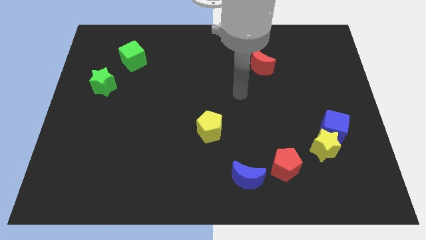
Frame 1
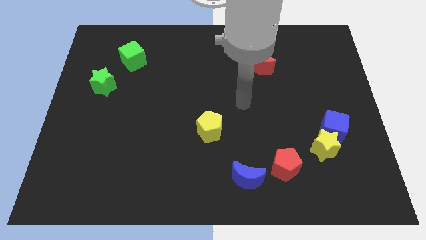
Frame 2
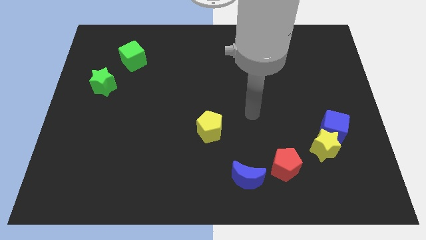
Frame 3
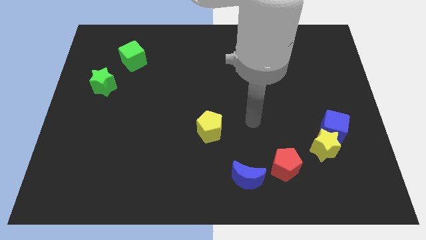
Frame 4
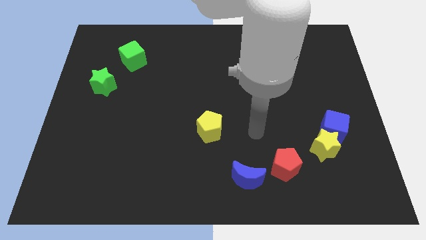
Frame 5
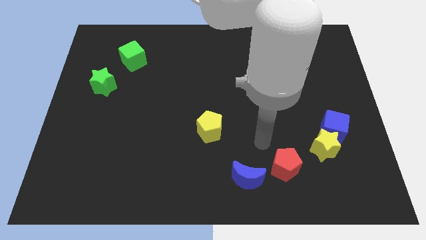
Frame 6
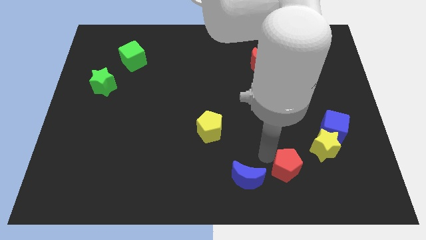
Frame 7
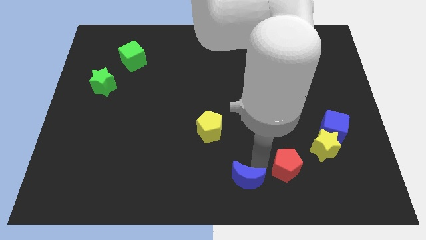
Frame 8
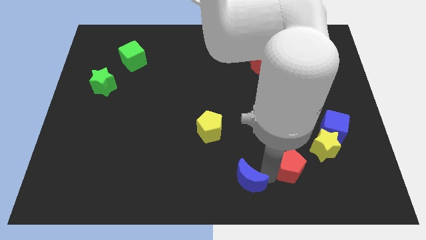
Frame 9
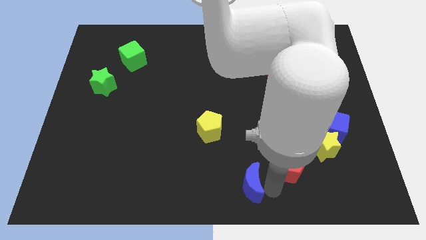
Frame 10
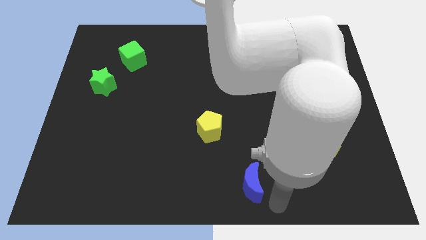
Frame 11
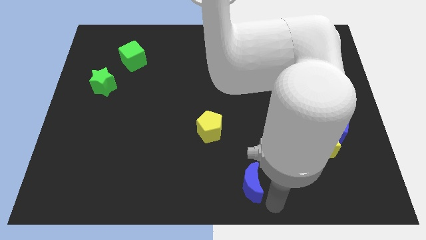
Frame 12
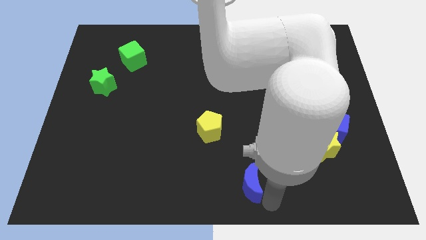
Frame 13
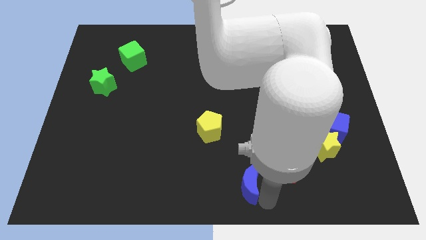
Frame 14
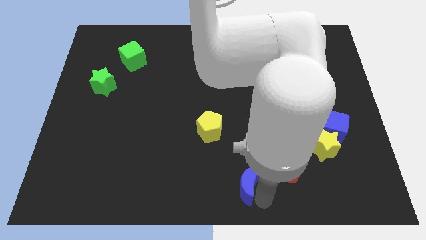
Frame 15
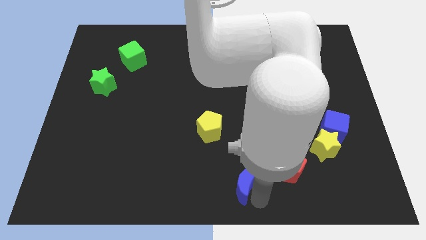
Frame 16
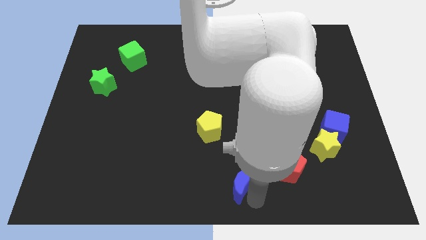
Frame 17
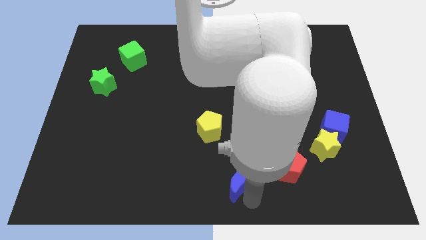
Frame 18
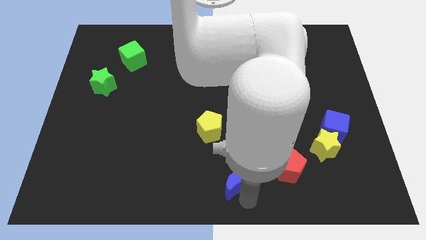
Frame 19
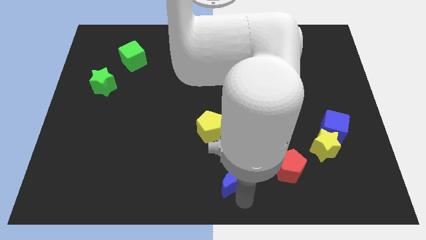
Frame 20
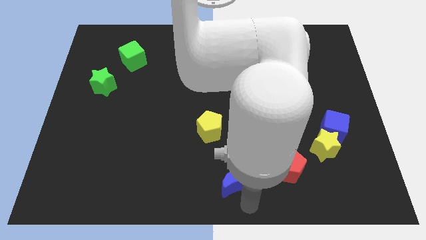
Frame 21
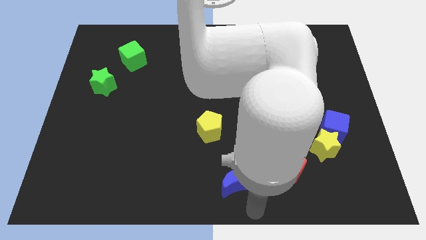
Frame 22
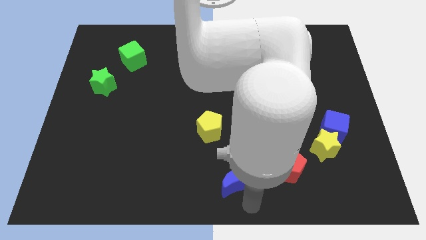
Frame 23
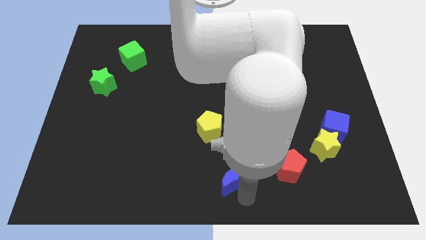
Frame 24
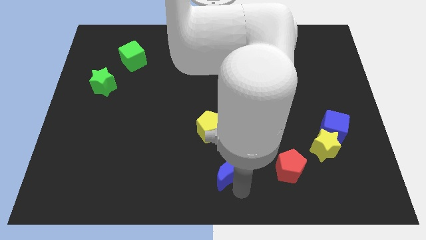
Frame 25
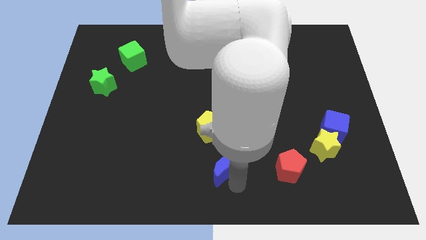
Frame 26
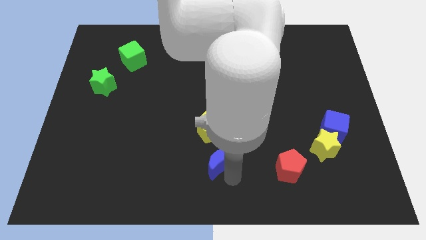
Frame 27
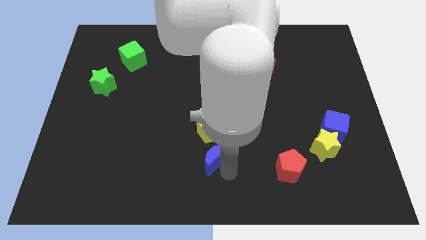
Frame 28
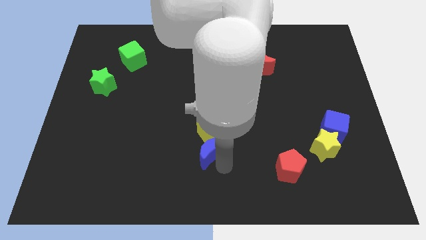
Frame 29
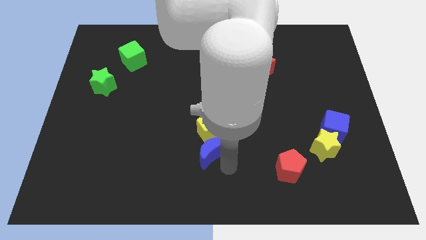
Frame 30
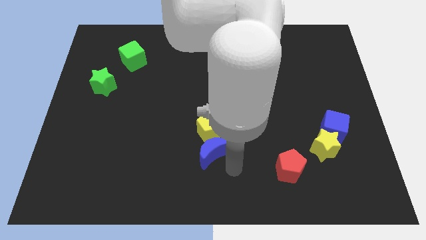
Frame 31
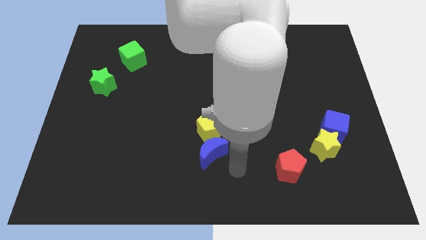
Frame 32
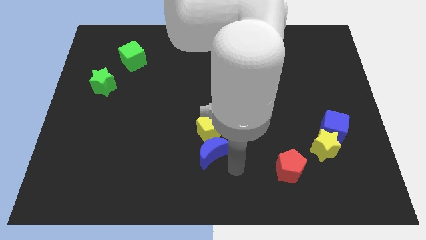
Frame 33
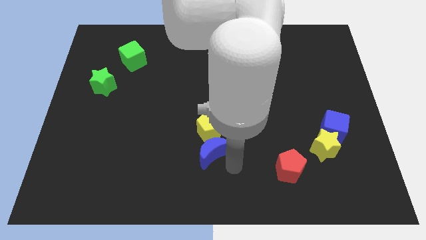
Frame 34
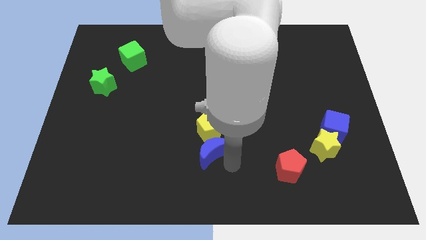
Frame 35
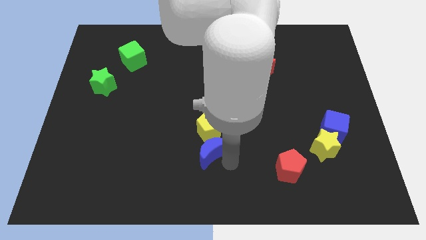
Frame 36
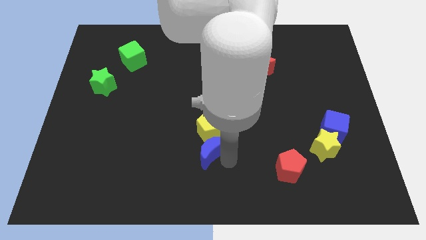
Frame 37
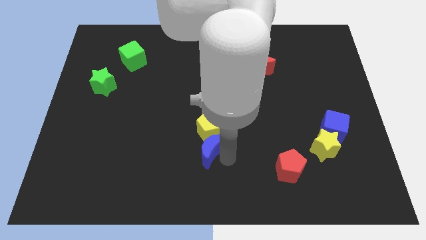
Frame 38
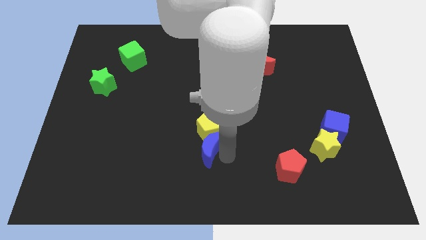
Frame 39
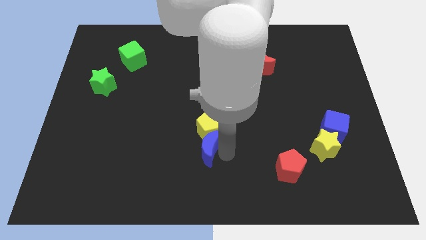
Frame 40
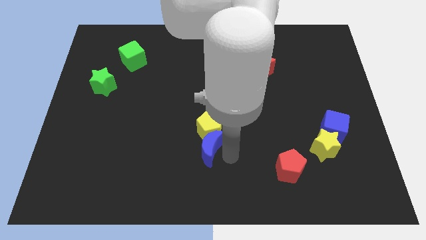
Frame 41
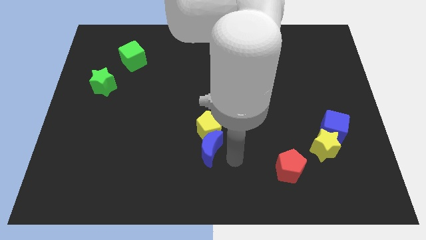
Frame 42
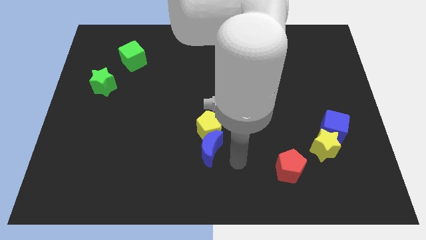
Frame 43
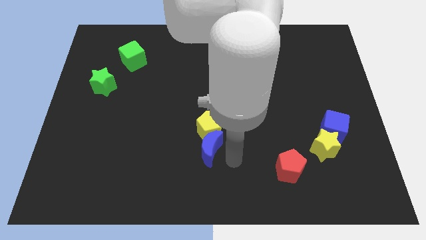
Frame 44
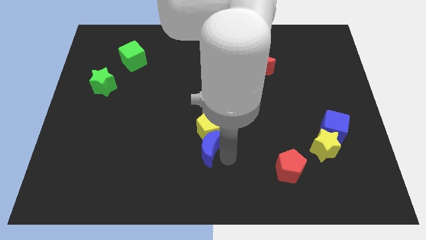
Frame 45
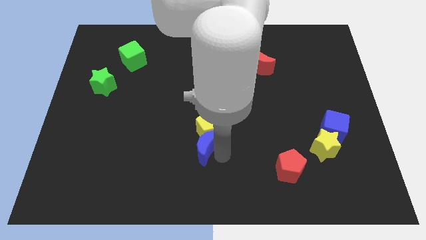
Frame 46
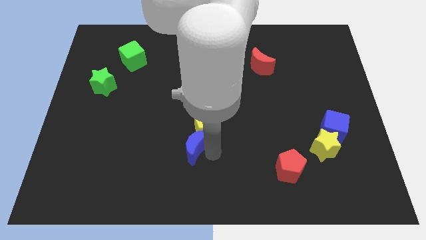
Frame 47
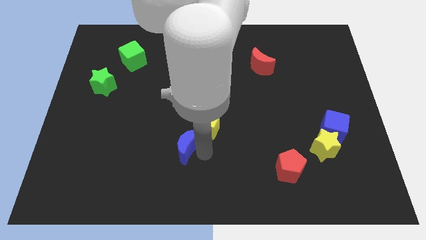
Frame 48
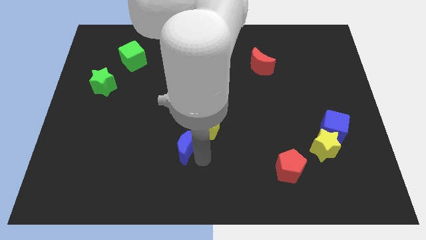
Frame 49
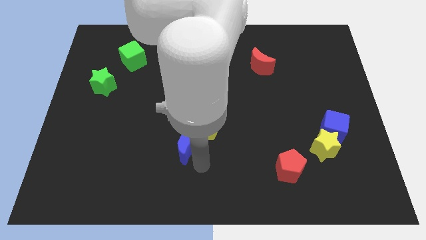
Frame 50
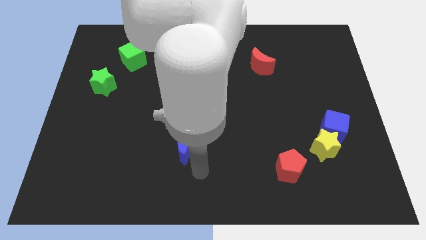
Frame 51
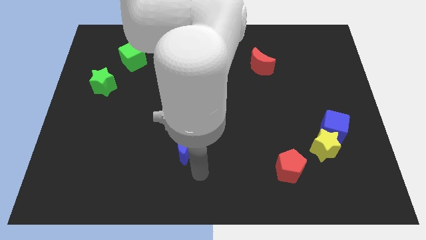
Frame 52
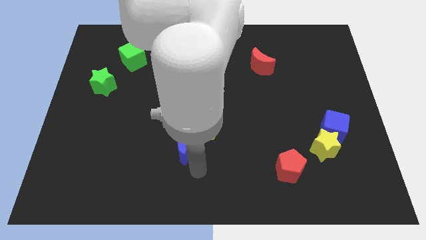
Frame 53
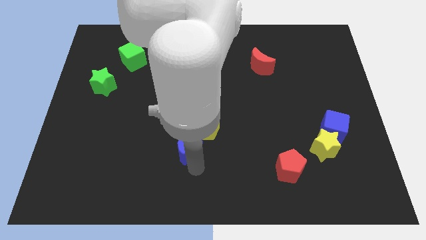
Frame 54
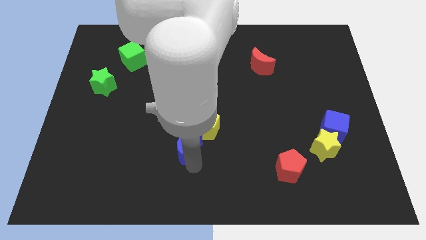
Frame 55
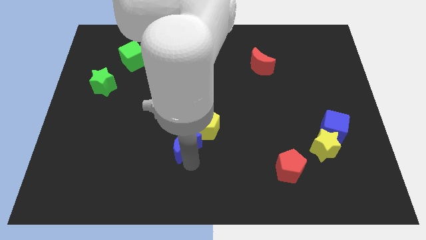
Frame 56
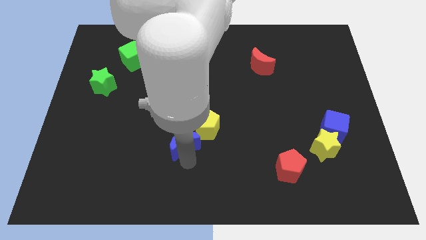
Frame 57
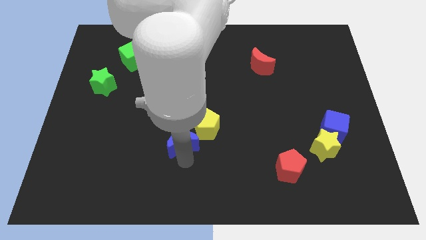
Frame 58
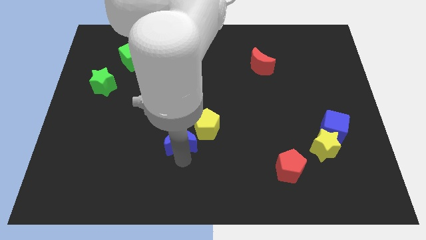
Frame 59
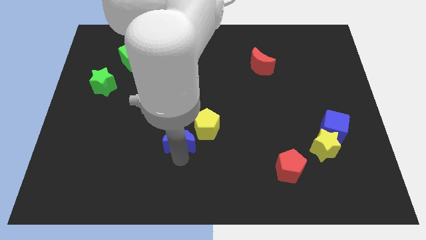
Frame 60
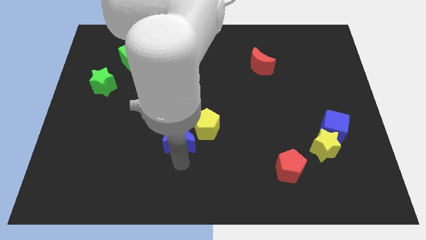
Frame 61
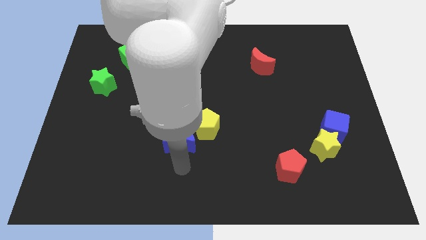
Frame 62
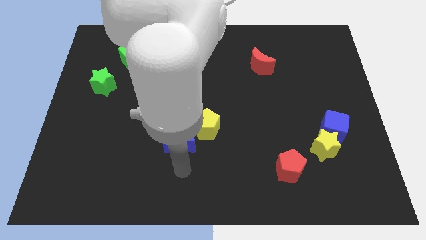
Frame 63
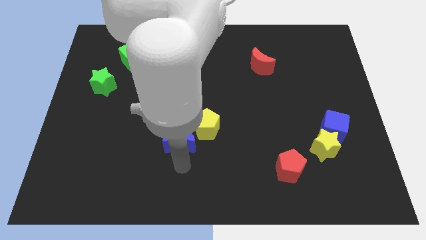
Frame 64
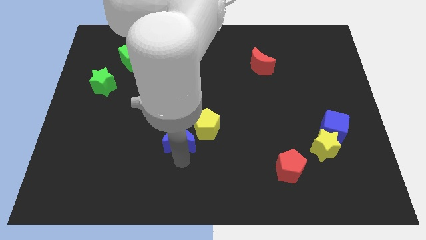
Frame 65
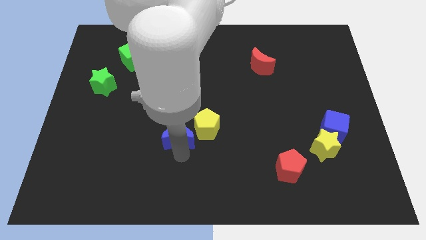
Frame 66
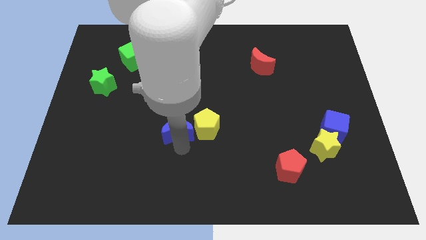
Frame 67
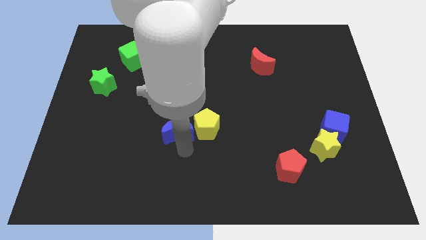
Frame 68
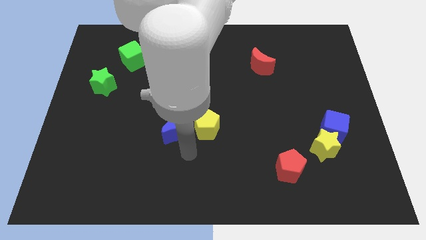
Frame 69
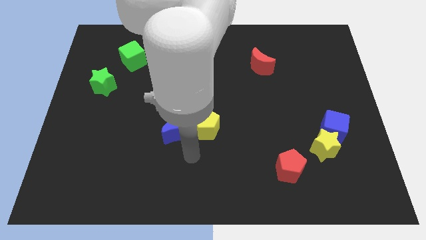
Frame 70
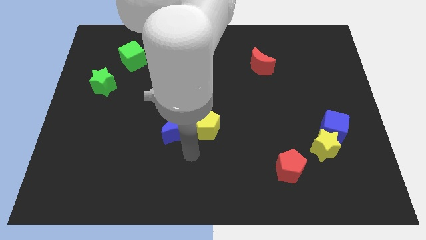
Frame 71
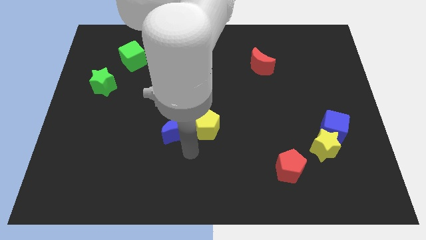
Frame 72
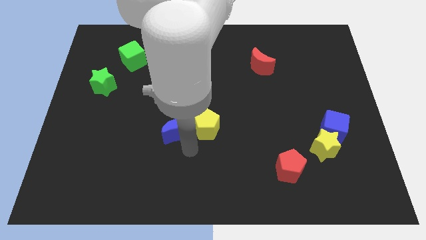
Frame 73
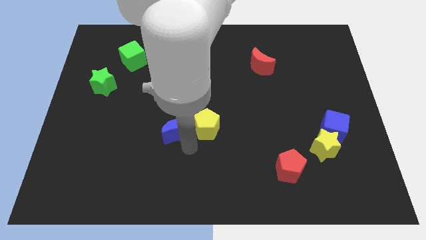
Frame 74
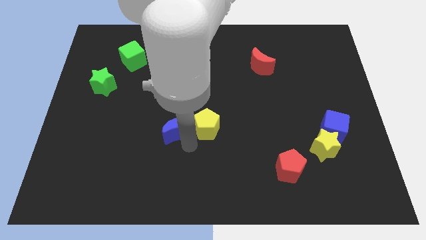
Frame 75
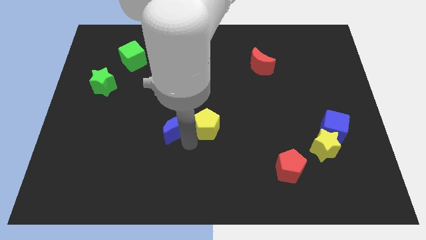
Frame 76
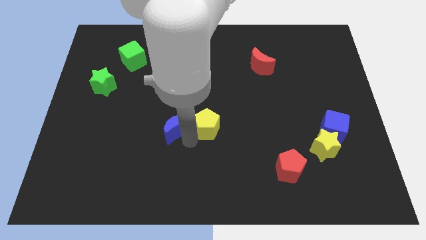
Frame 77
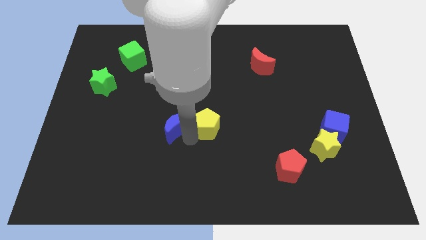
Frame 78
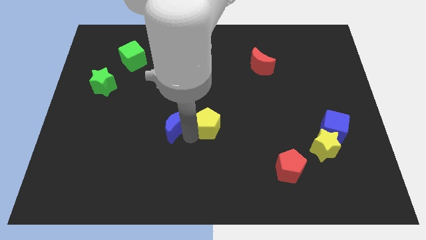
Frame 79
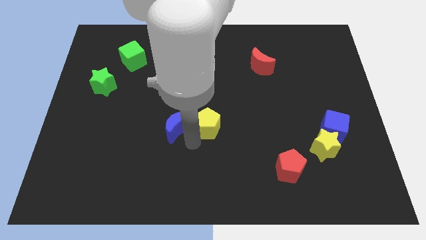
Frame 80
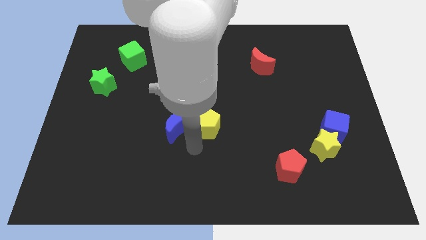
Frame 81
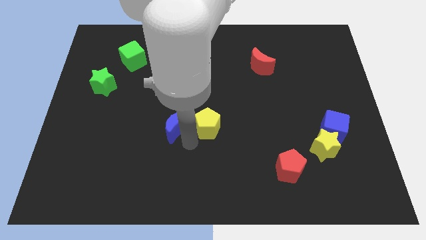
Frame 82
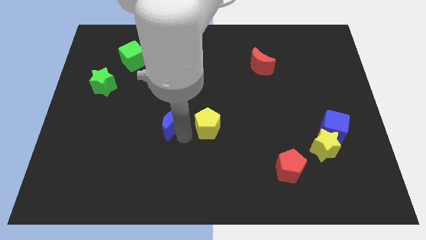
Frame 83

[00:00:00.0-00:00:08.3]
slide the blue moon diagonally upwards and left
